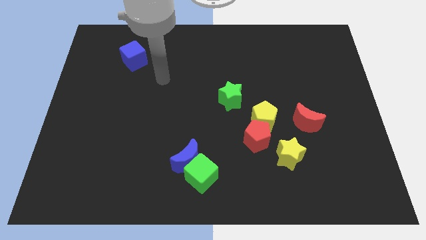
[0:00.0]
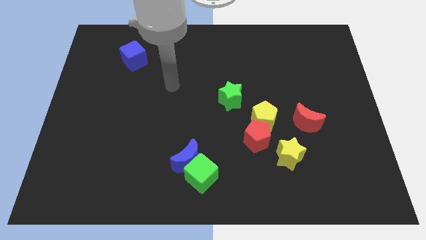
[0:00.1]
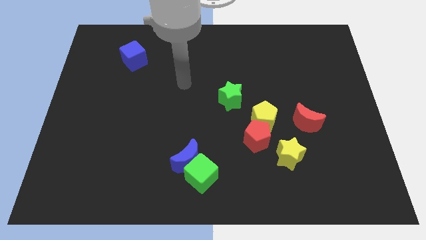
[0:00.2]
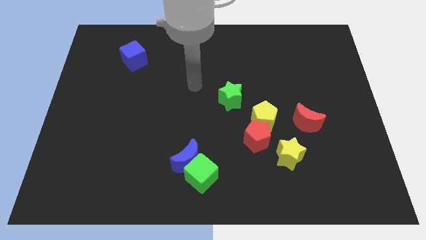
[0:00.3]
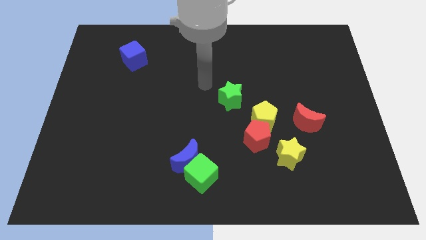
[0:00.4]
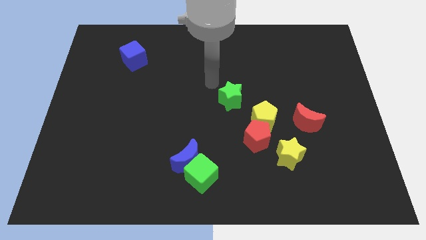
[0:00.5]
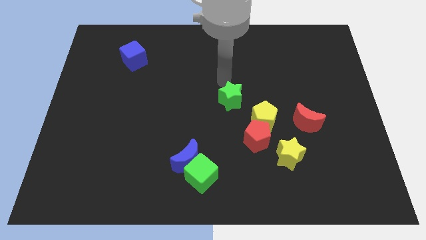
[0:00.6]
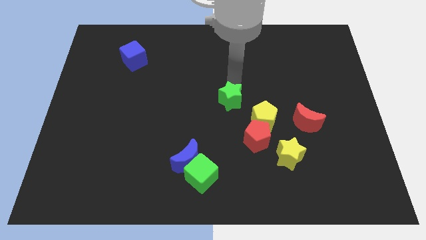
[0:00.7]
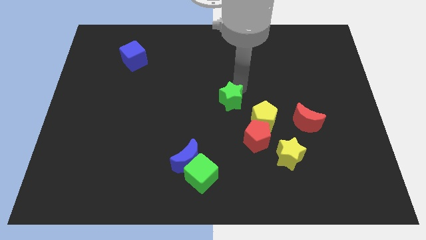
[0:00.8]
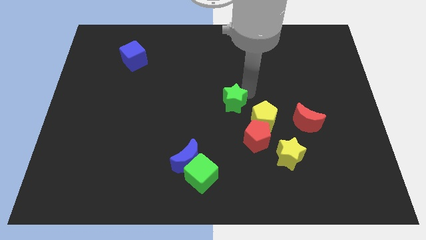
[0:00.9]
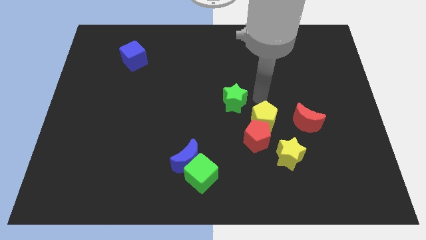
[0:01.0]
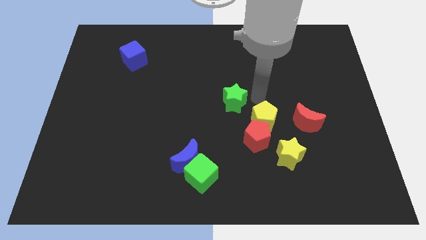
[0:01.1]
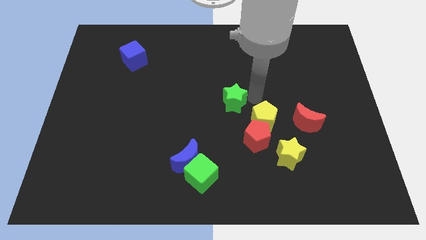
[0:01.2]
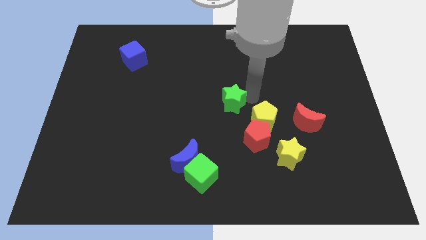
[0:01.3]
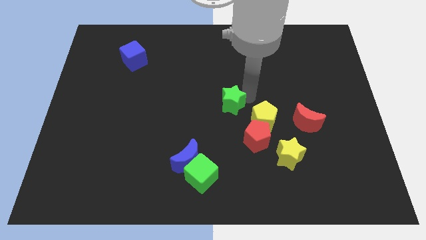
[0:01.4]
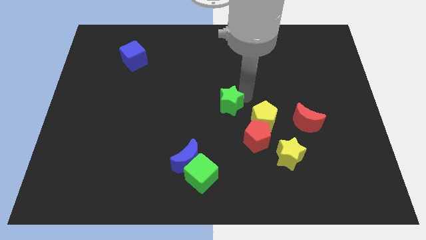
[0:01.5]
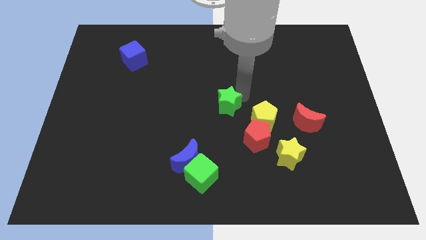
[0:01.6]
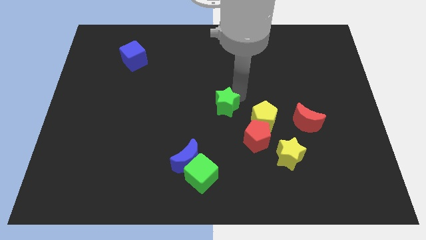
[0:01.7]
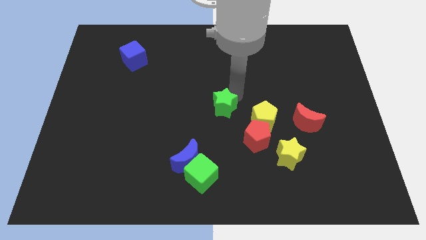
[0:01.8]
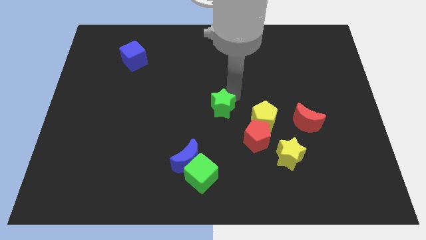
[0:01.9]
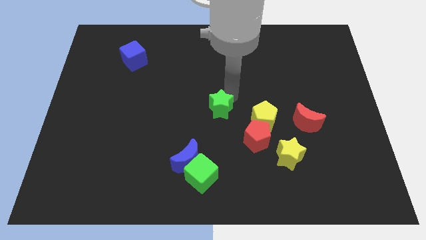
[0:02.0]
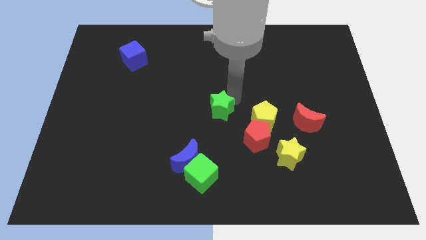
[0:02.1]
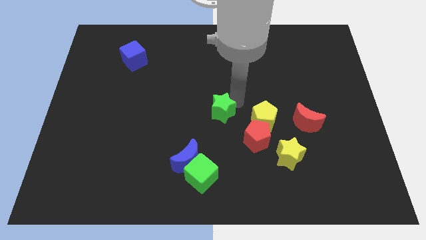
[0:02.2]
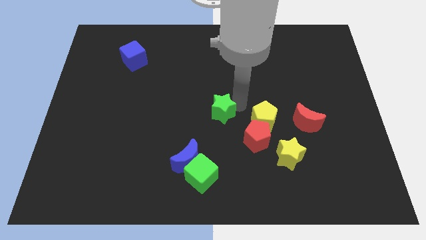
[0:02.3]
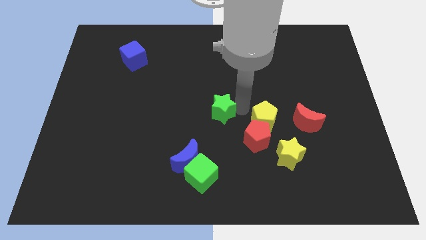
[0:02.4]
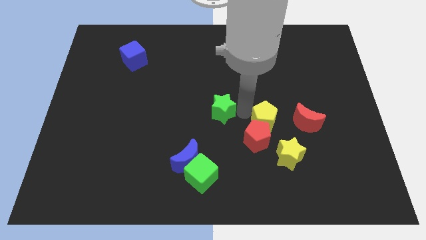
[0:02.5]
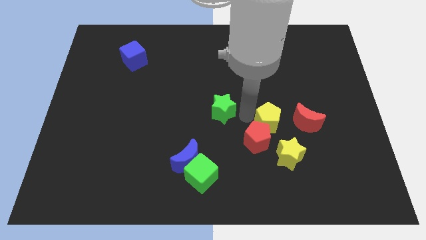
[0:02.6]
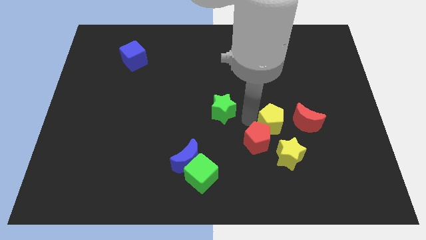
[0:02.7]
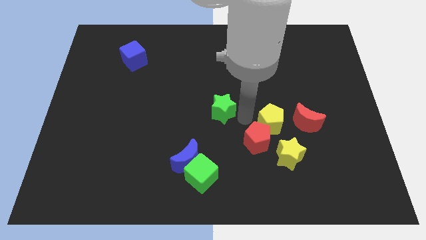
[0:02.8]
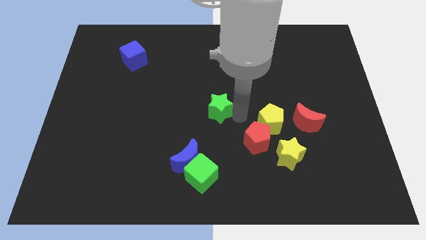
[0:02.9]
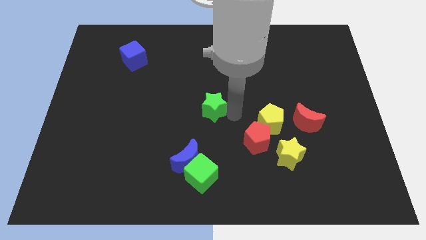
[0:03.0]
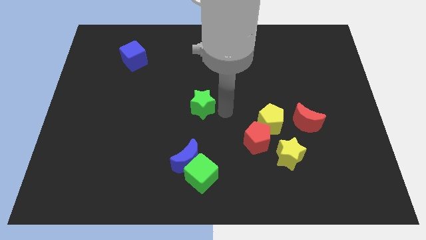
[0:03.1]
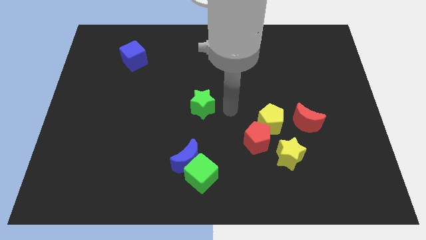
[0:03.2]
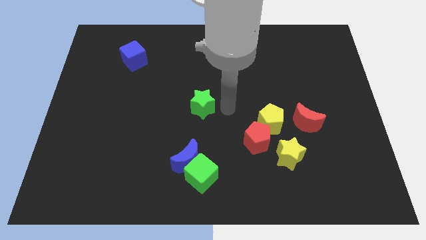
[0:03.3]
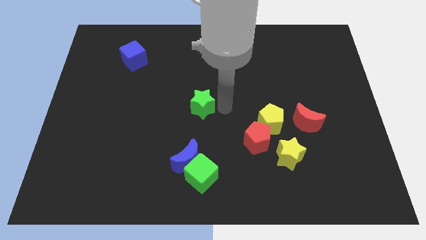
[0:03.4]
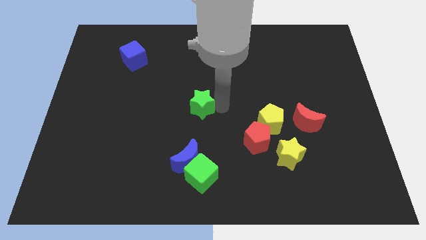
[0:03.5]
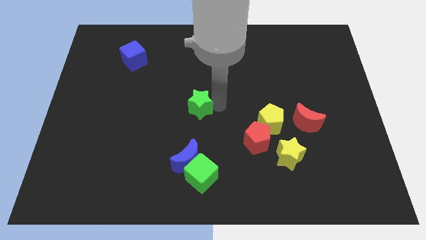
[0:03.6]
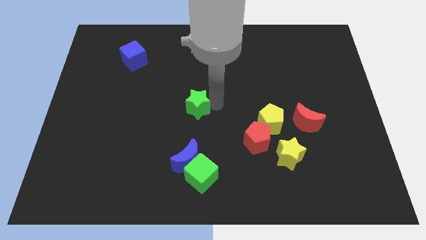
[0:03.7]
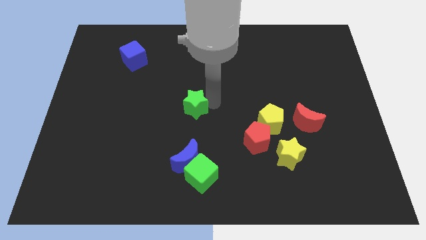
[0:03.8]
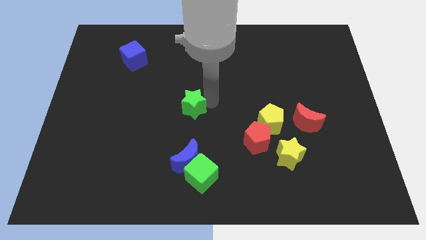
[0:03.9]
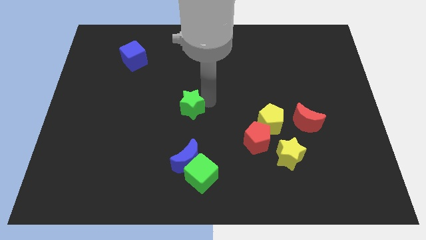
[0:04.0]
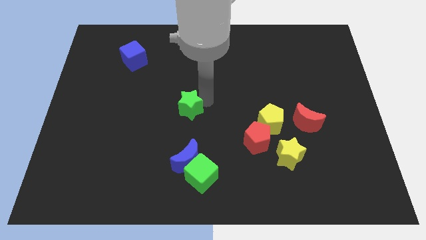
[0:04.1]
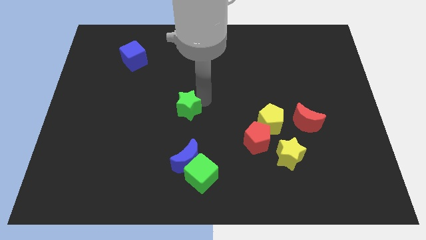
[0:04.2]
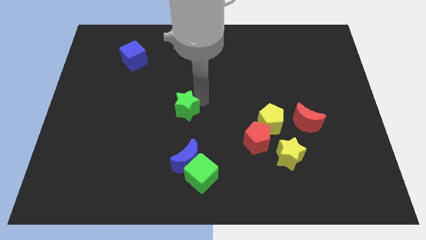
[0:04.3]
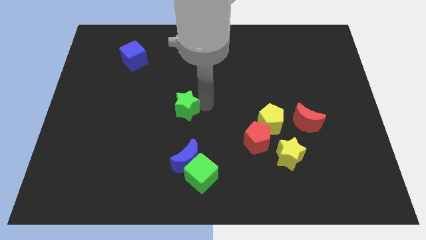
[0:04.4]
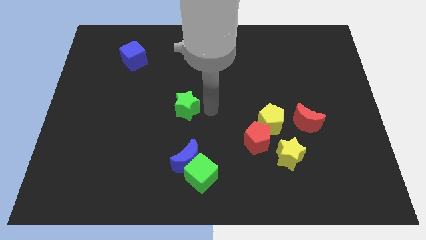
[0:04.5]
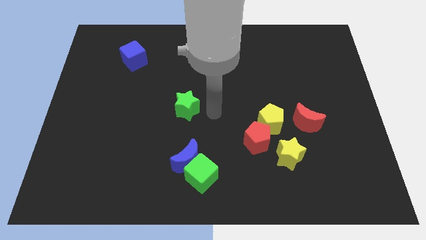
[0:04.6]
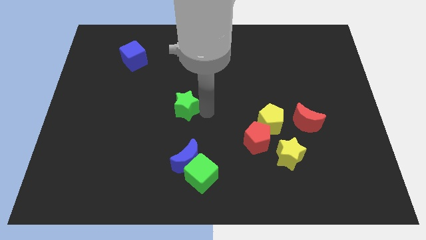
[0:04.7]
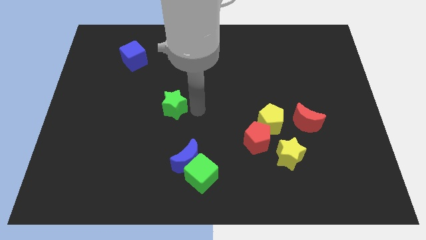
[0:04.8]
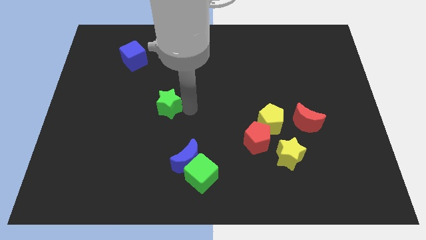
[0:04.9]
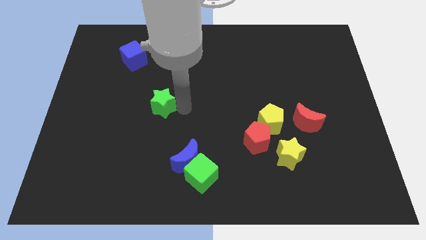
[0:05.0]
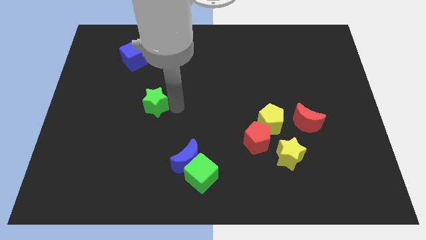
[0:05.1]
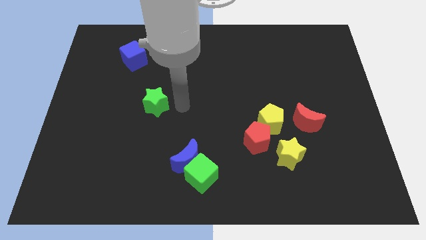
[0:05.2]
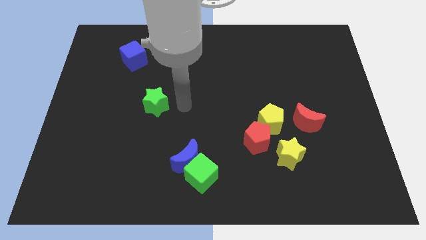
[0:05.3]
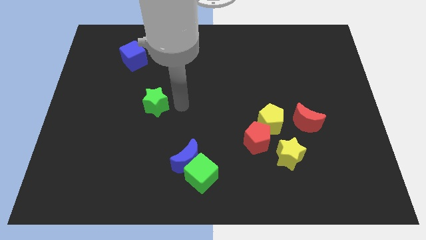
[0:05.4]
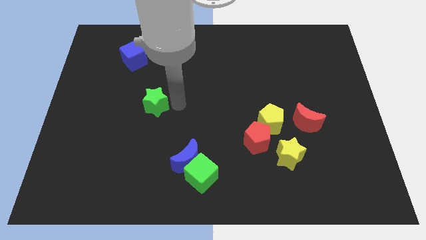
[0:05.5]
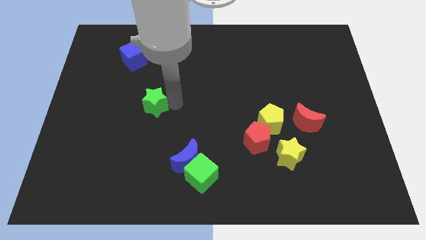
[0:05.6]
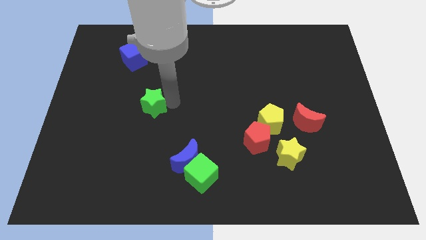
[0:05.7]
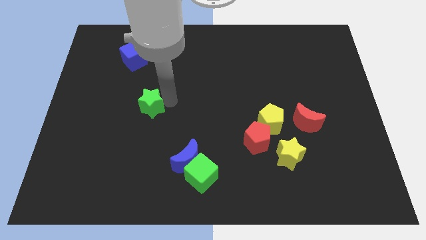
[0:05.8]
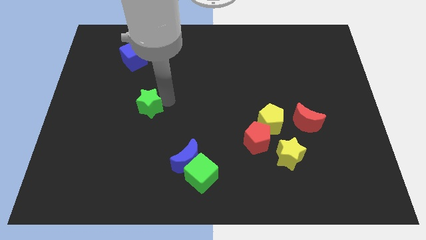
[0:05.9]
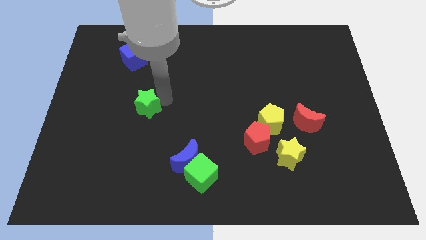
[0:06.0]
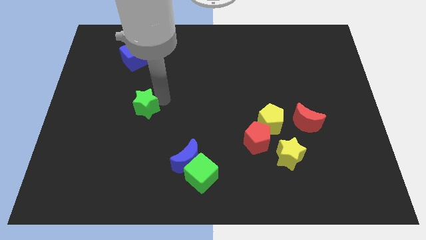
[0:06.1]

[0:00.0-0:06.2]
slide the green star to the left

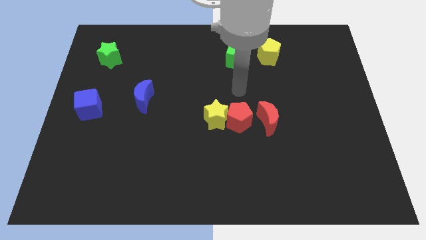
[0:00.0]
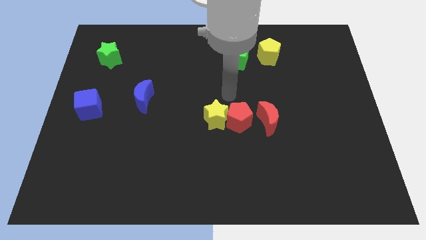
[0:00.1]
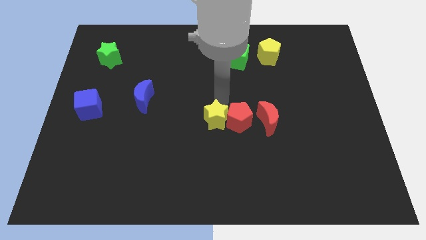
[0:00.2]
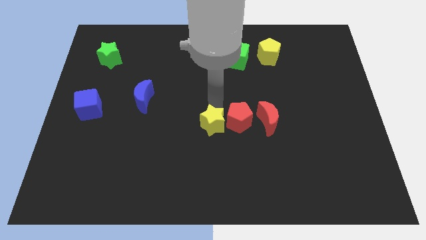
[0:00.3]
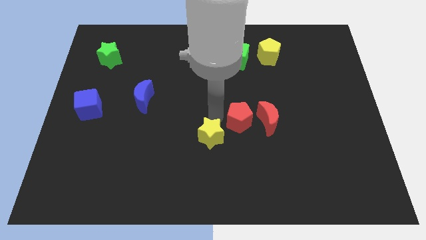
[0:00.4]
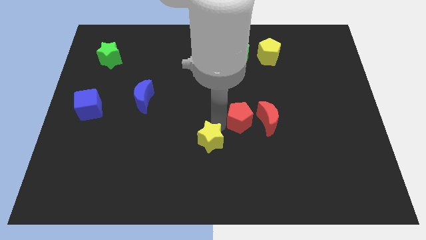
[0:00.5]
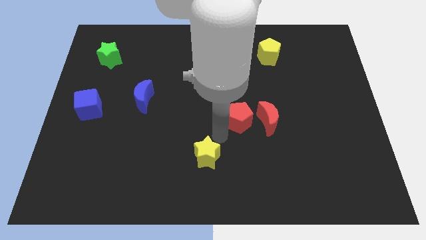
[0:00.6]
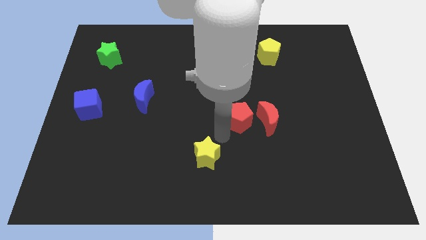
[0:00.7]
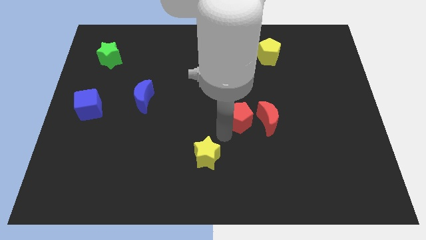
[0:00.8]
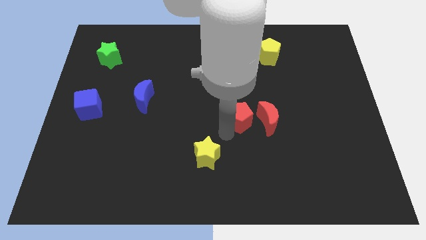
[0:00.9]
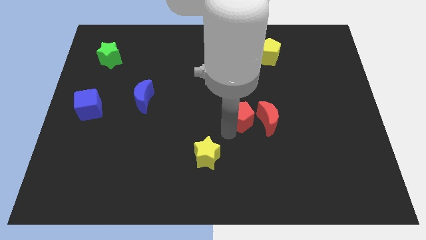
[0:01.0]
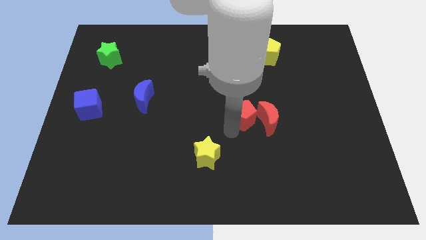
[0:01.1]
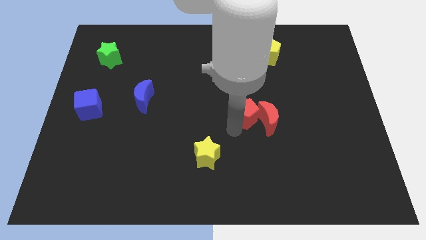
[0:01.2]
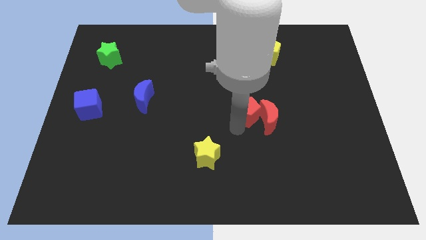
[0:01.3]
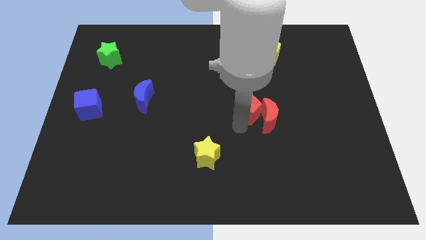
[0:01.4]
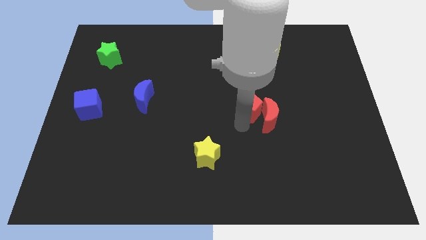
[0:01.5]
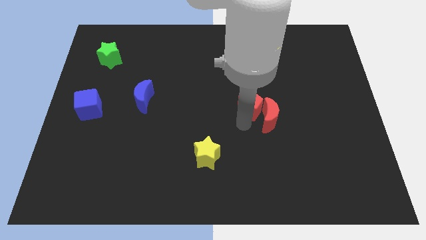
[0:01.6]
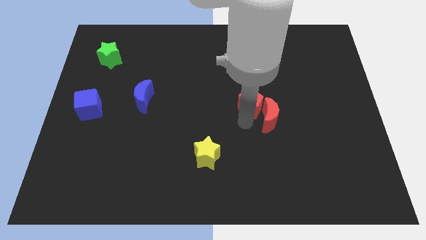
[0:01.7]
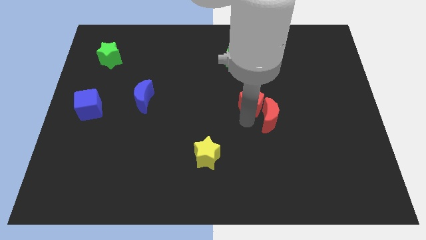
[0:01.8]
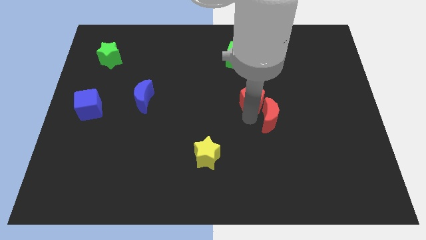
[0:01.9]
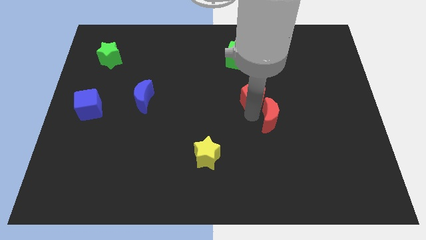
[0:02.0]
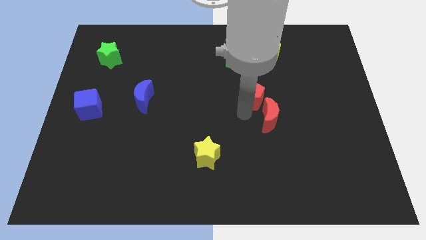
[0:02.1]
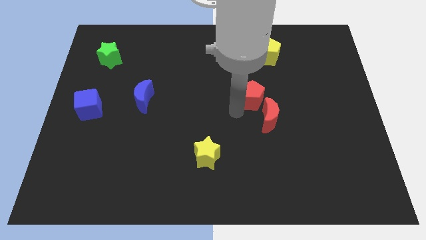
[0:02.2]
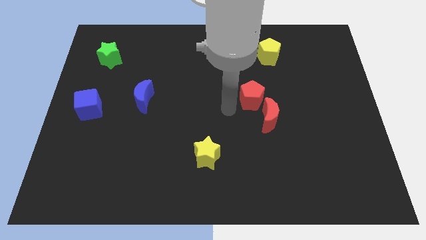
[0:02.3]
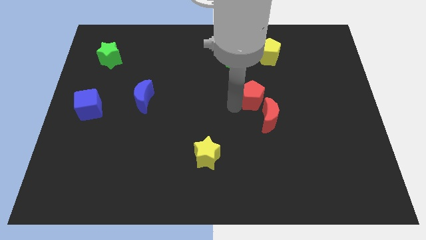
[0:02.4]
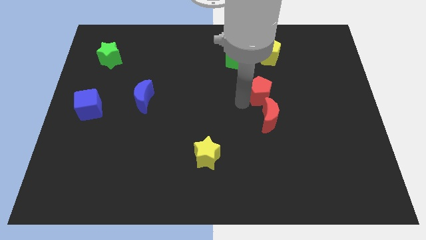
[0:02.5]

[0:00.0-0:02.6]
slightly push the red pentagon upwards and to the right diagonally
